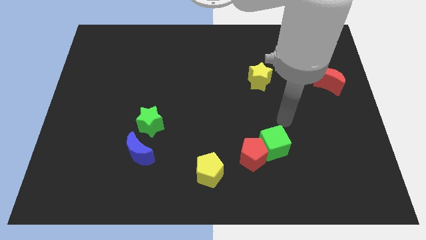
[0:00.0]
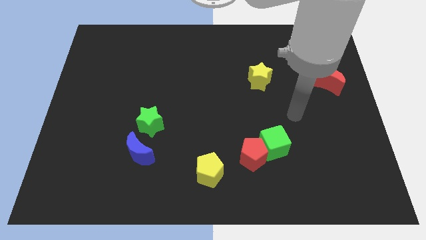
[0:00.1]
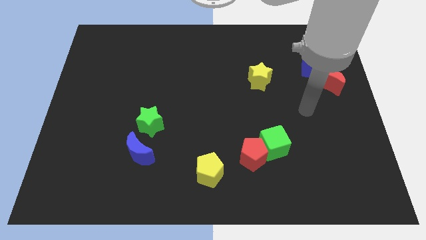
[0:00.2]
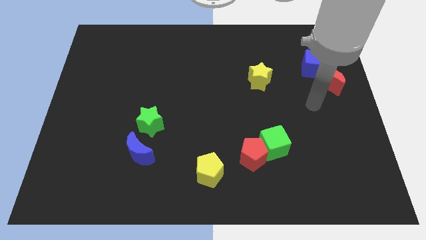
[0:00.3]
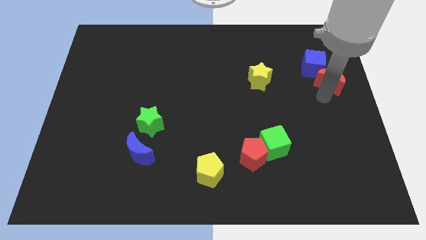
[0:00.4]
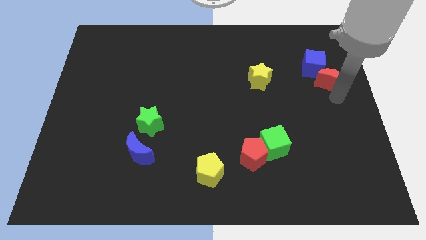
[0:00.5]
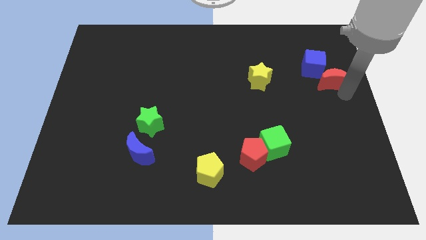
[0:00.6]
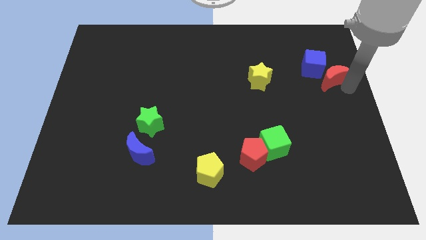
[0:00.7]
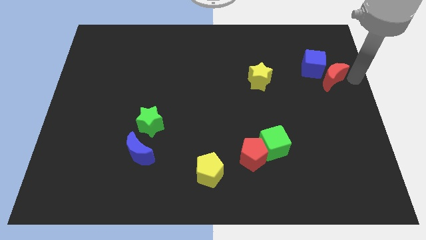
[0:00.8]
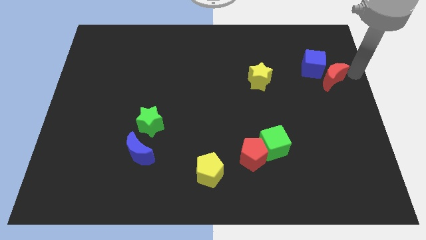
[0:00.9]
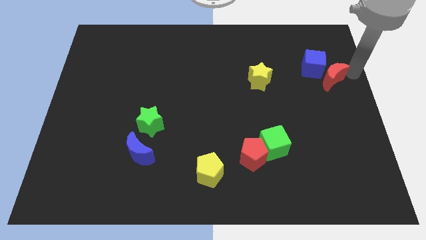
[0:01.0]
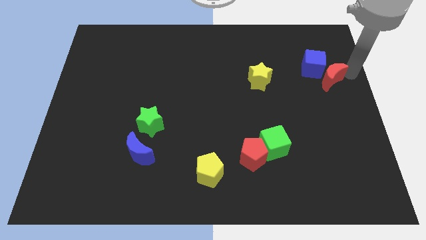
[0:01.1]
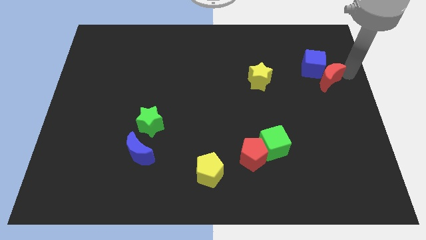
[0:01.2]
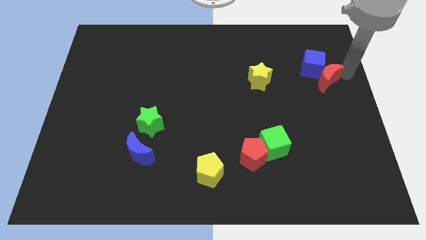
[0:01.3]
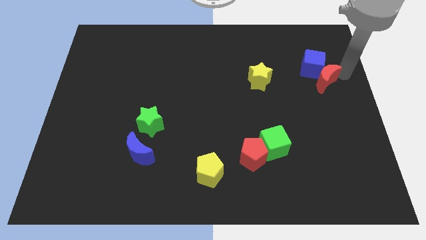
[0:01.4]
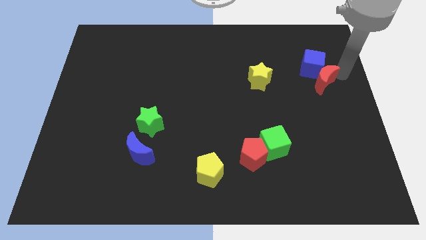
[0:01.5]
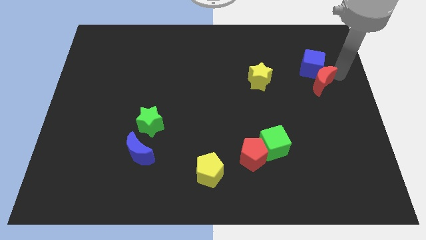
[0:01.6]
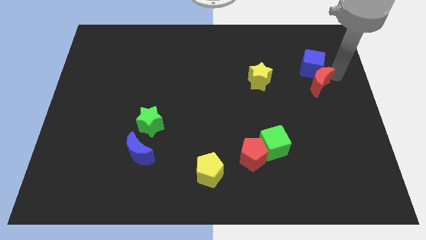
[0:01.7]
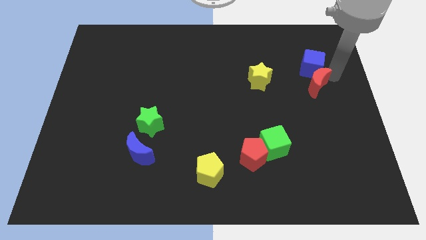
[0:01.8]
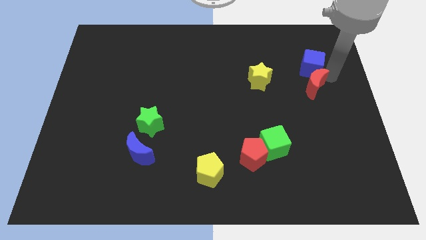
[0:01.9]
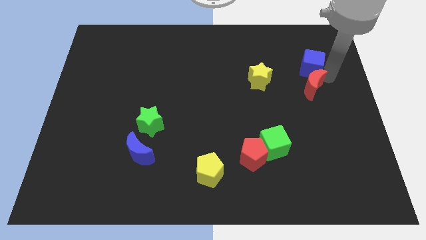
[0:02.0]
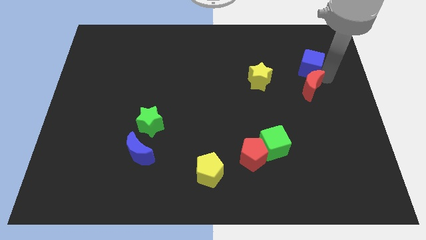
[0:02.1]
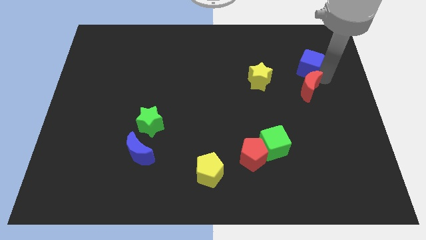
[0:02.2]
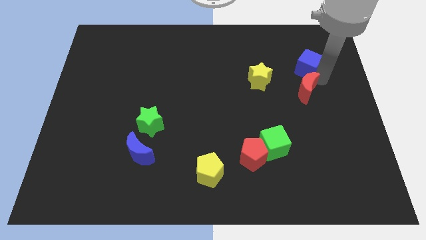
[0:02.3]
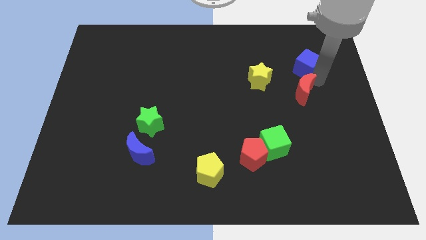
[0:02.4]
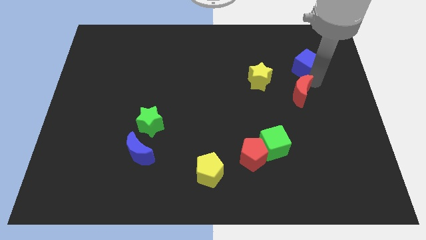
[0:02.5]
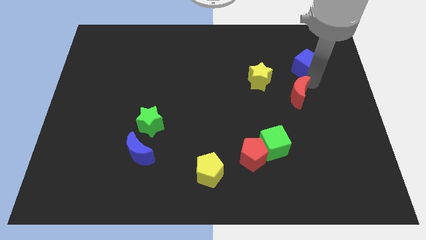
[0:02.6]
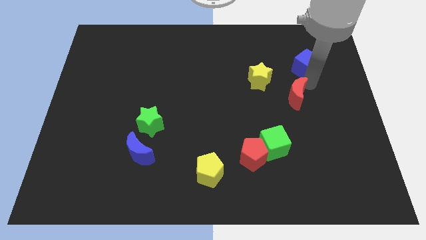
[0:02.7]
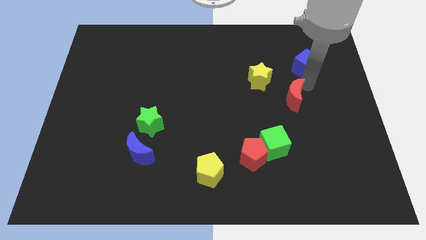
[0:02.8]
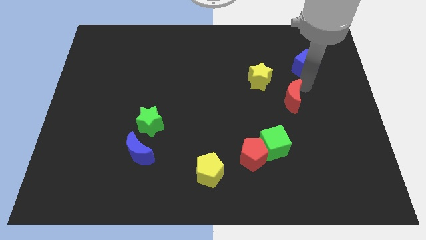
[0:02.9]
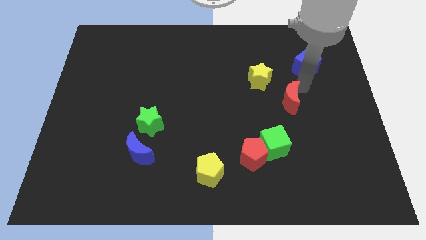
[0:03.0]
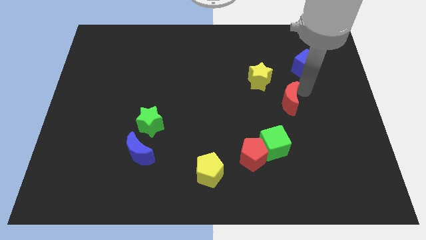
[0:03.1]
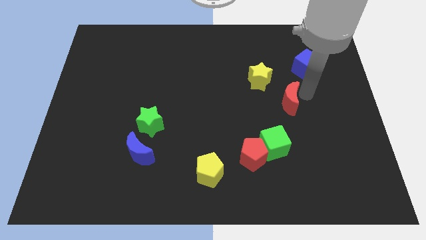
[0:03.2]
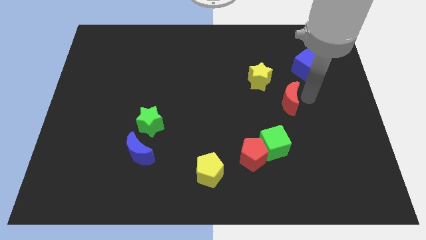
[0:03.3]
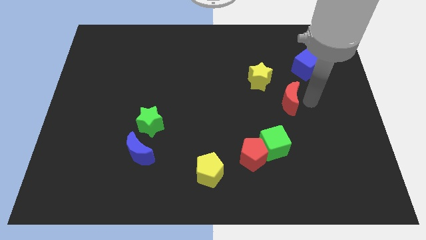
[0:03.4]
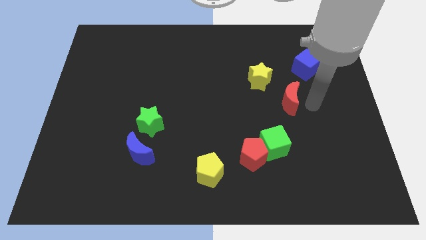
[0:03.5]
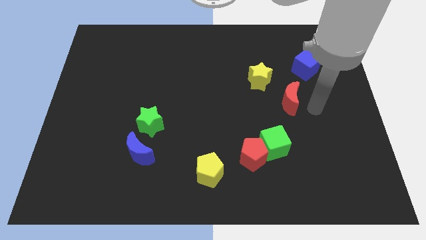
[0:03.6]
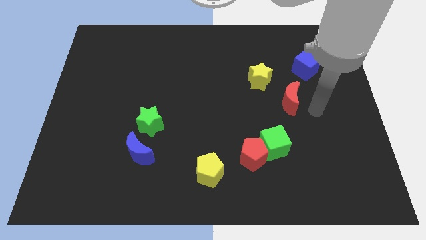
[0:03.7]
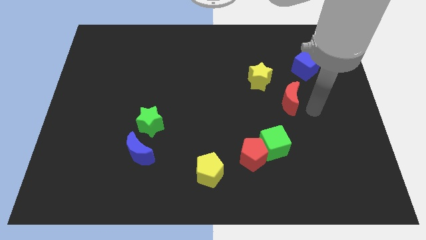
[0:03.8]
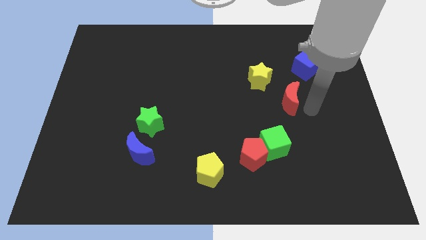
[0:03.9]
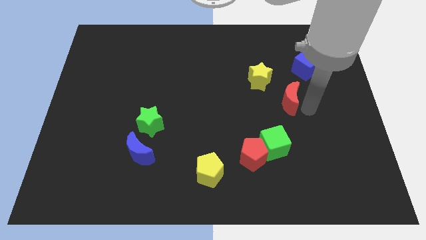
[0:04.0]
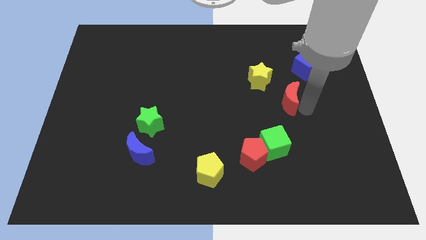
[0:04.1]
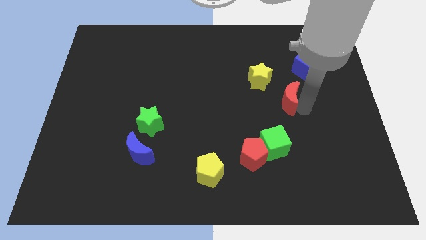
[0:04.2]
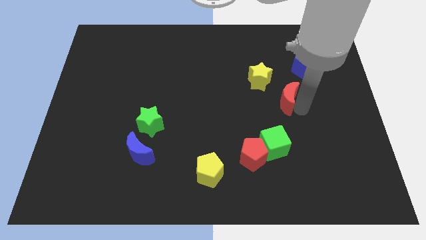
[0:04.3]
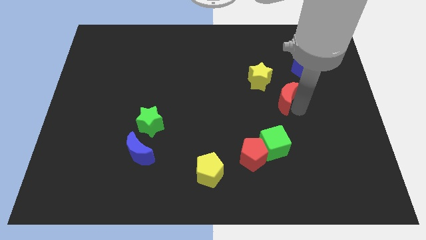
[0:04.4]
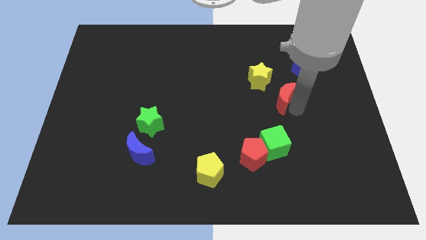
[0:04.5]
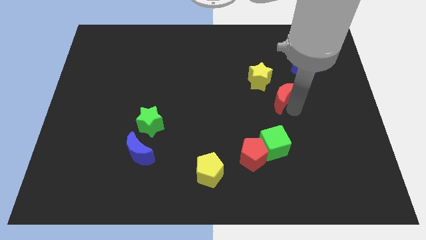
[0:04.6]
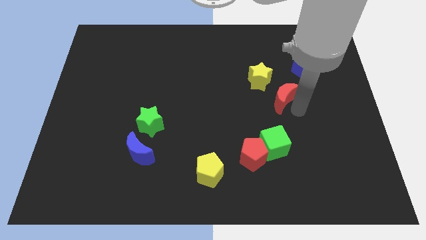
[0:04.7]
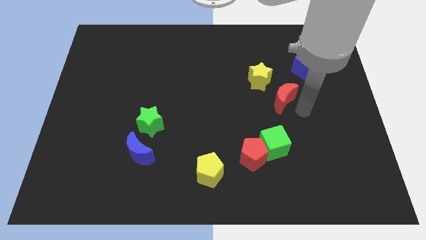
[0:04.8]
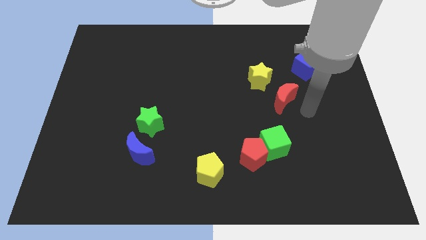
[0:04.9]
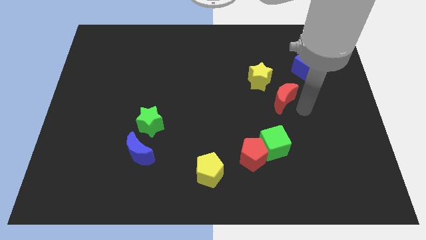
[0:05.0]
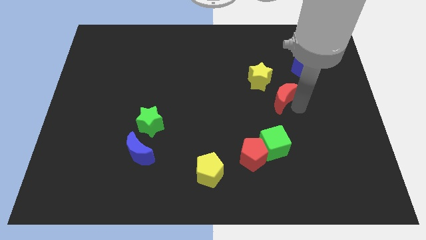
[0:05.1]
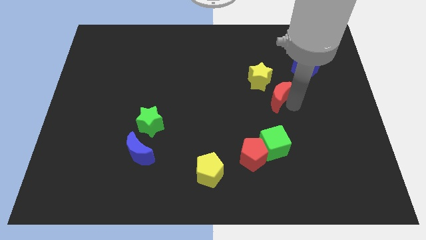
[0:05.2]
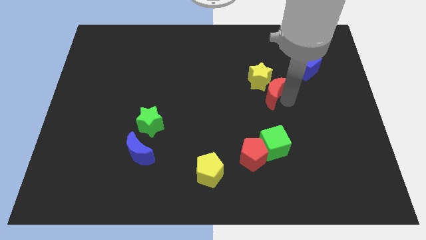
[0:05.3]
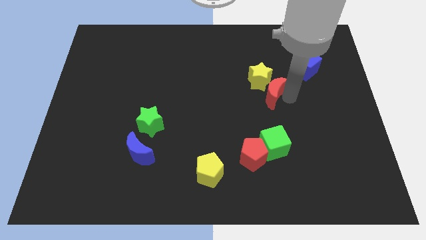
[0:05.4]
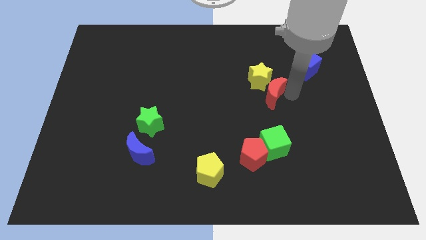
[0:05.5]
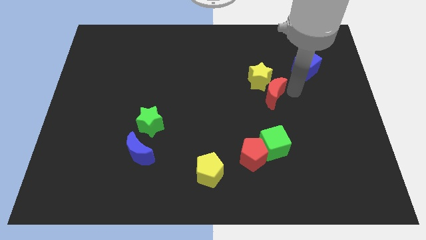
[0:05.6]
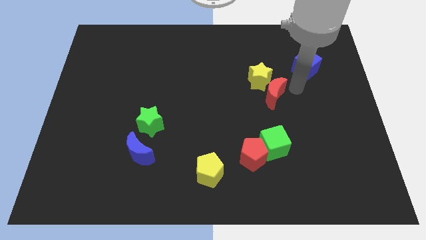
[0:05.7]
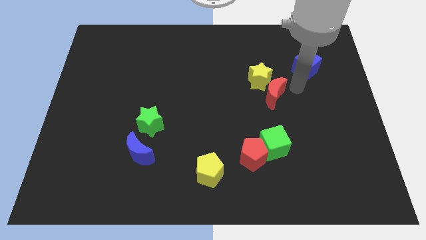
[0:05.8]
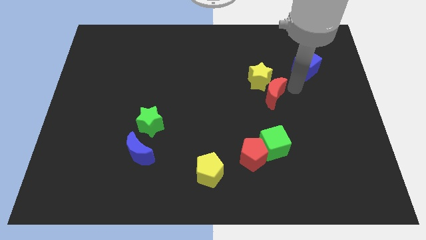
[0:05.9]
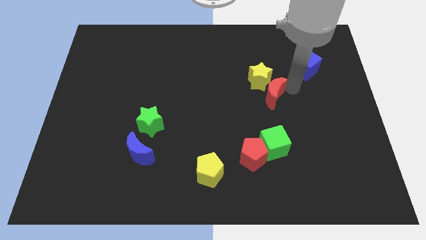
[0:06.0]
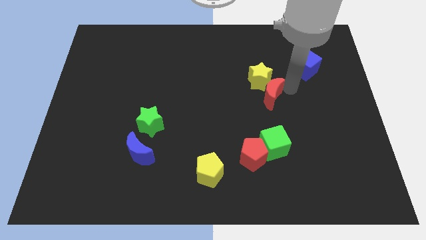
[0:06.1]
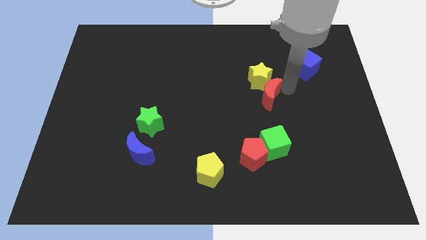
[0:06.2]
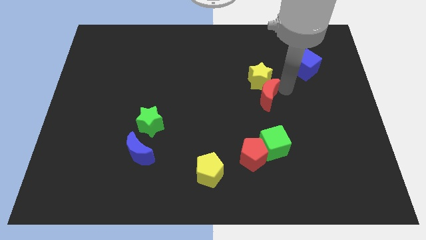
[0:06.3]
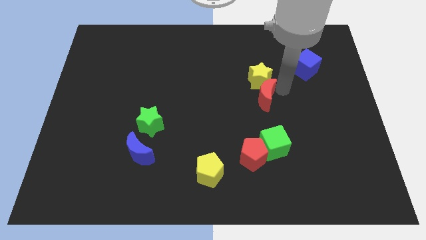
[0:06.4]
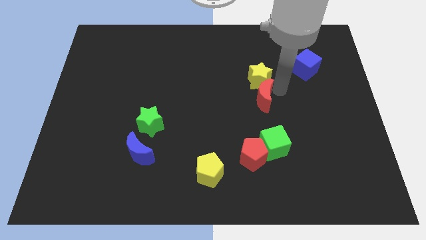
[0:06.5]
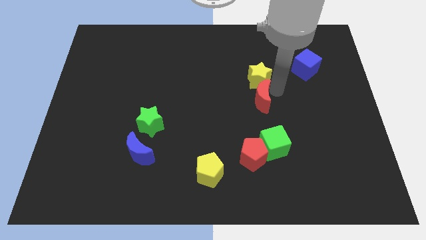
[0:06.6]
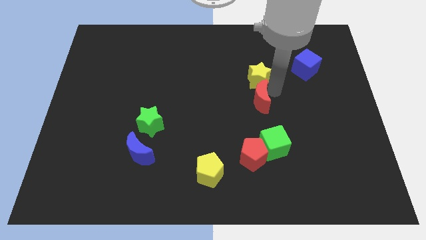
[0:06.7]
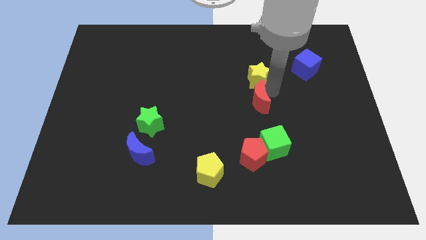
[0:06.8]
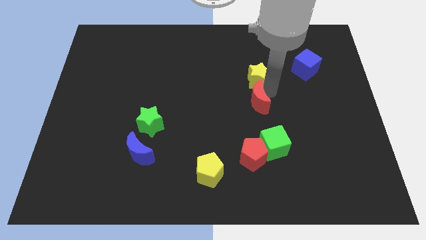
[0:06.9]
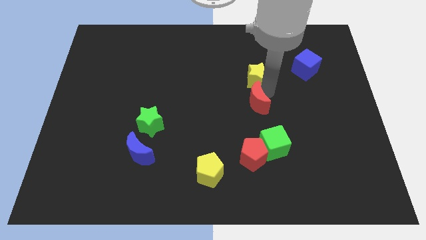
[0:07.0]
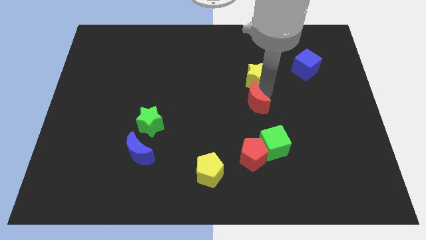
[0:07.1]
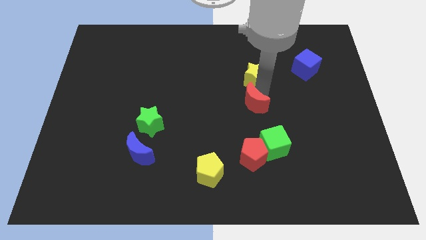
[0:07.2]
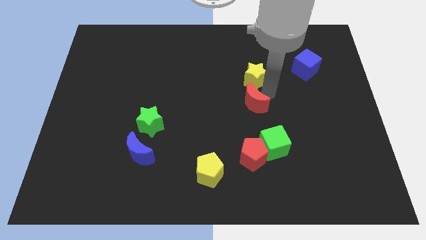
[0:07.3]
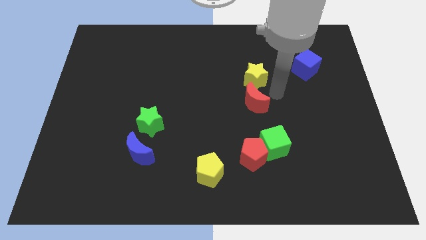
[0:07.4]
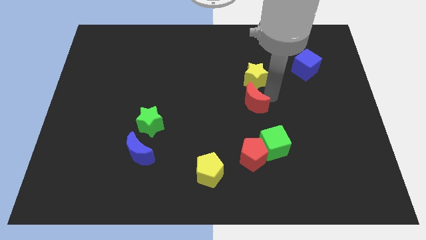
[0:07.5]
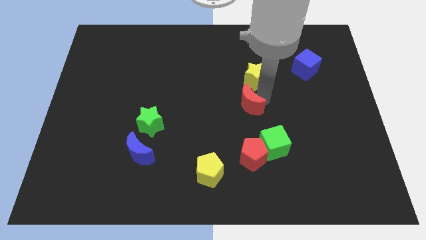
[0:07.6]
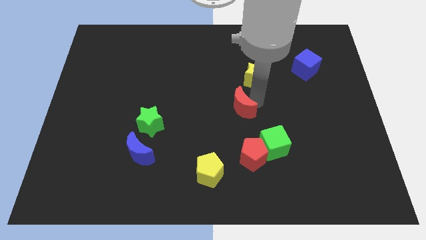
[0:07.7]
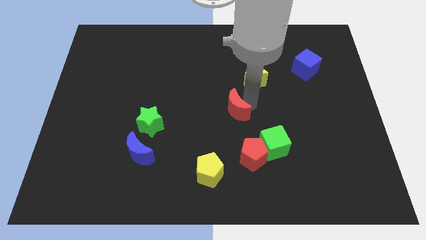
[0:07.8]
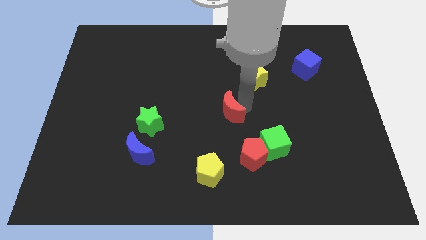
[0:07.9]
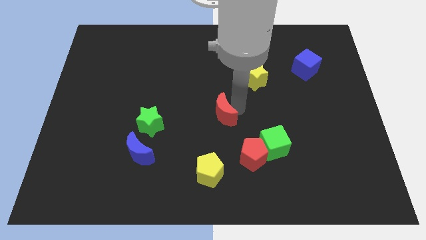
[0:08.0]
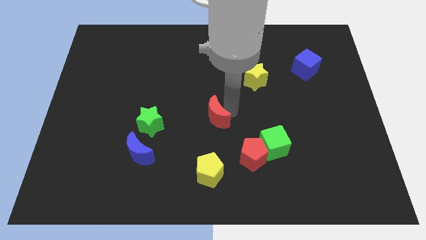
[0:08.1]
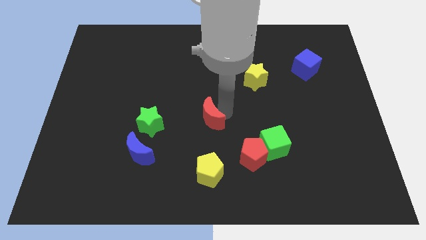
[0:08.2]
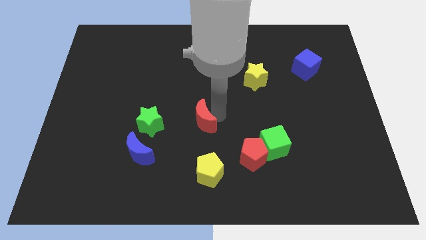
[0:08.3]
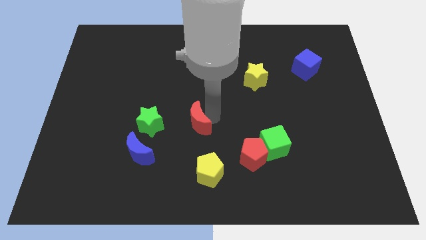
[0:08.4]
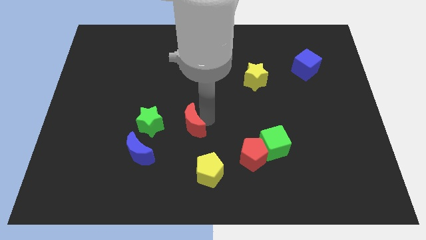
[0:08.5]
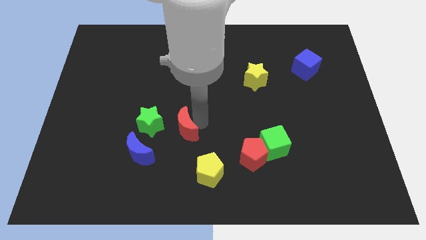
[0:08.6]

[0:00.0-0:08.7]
put the red moon to the top right side of the blue moon
